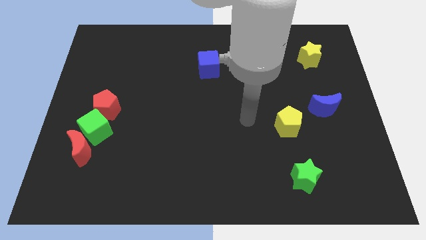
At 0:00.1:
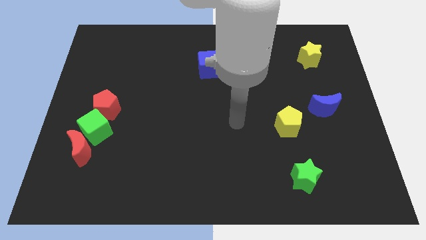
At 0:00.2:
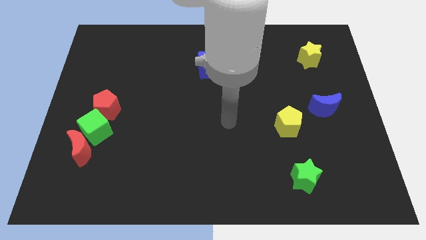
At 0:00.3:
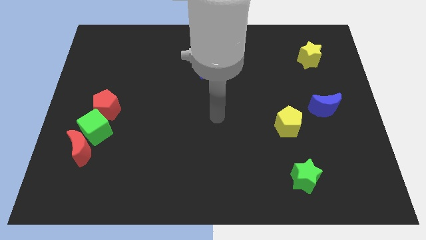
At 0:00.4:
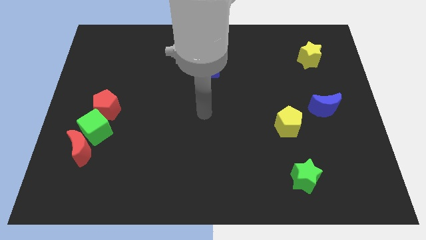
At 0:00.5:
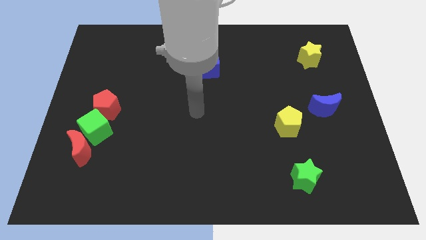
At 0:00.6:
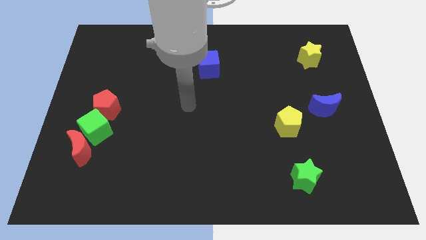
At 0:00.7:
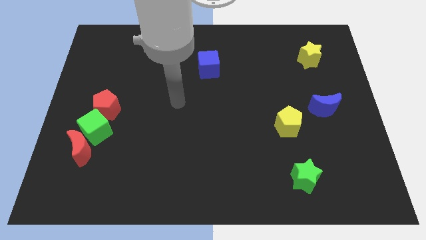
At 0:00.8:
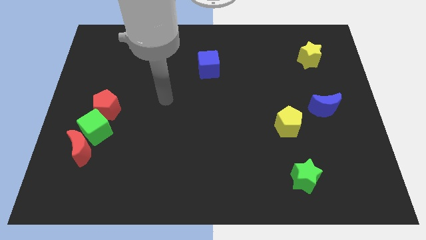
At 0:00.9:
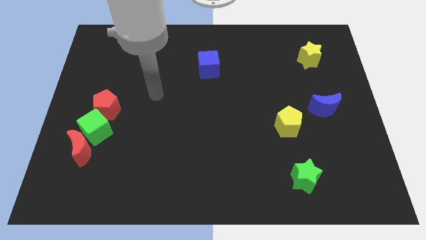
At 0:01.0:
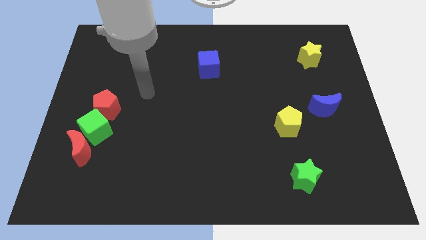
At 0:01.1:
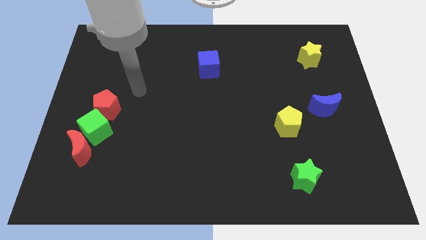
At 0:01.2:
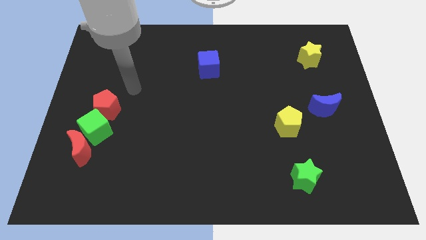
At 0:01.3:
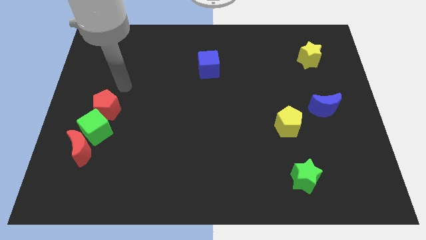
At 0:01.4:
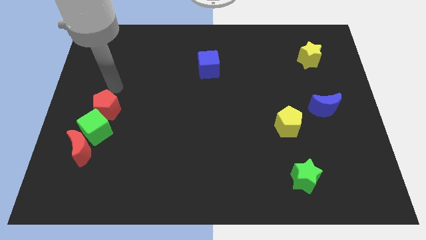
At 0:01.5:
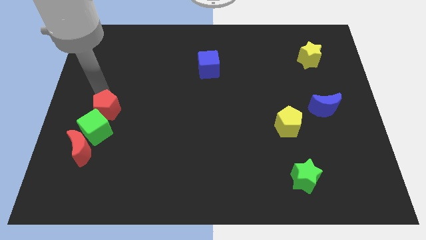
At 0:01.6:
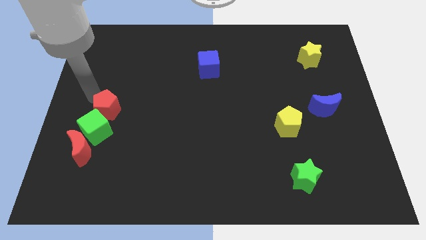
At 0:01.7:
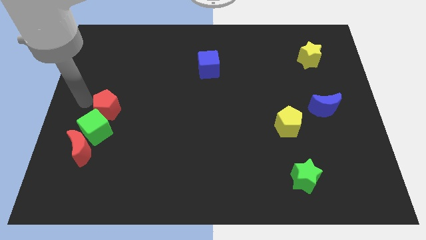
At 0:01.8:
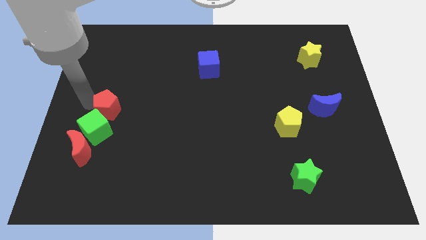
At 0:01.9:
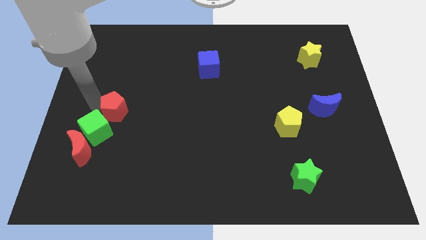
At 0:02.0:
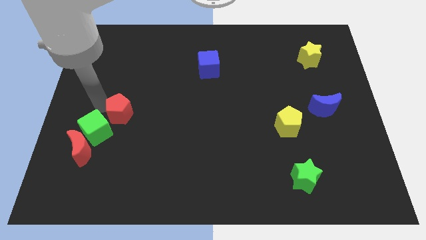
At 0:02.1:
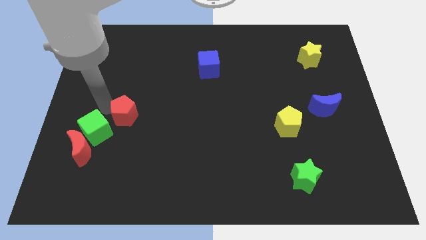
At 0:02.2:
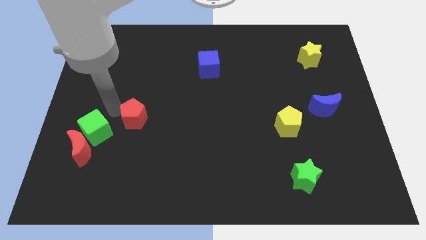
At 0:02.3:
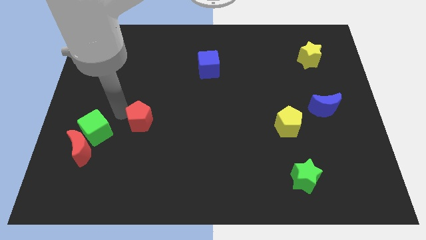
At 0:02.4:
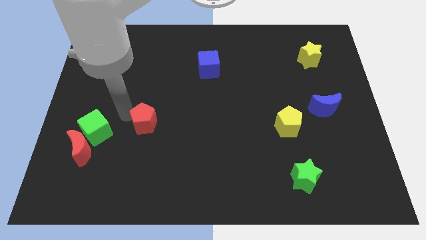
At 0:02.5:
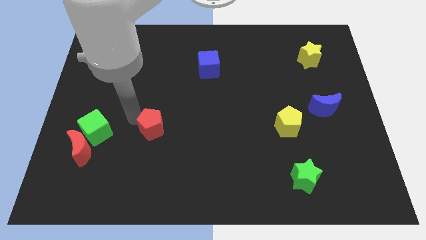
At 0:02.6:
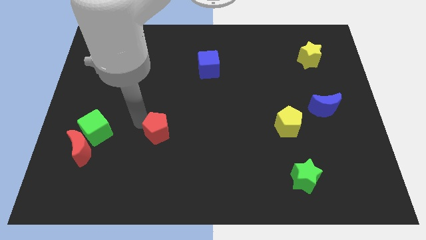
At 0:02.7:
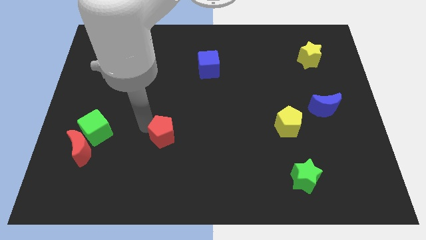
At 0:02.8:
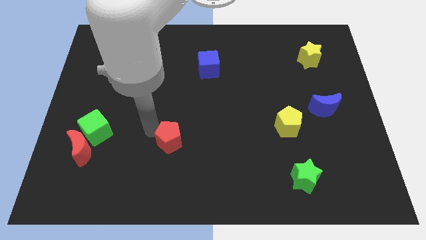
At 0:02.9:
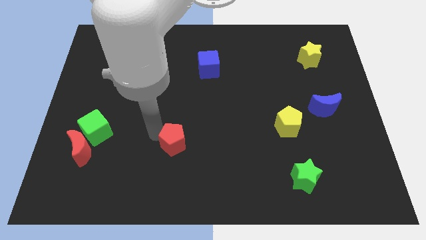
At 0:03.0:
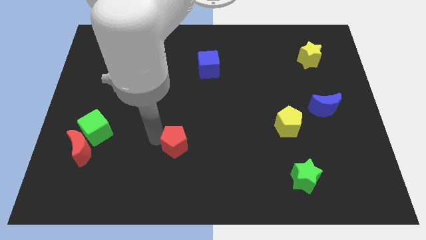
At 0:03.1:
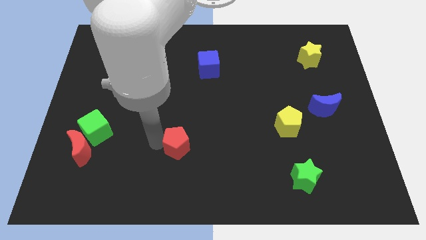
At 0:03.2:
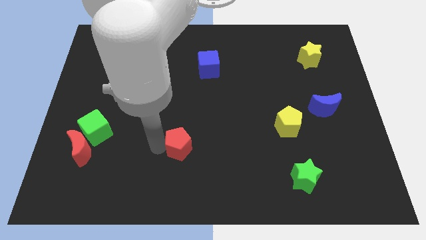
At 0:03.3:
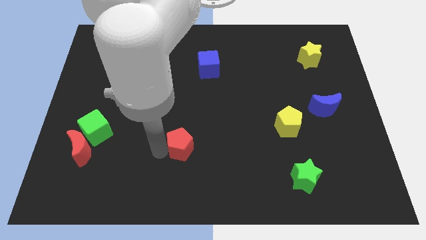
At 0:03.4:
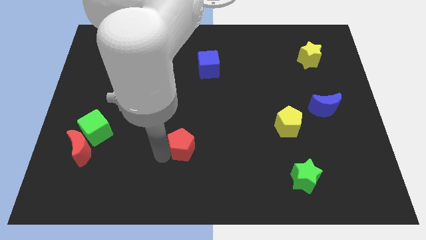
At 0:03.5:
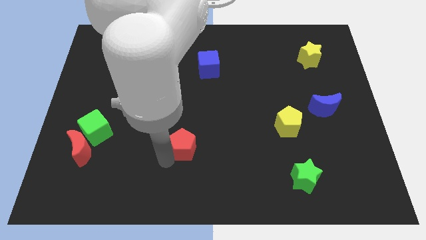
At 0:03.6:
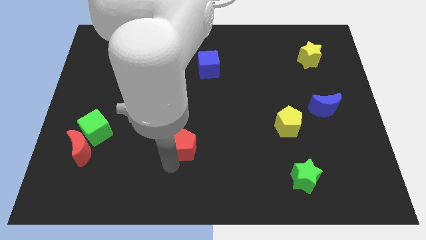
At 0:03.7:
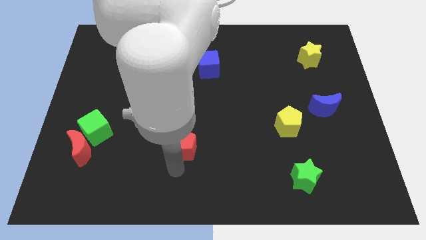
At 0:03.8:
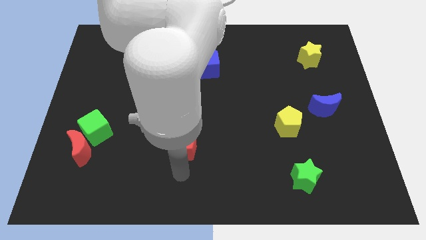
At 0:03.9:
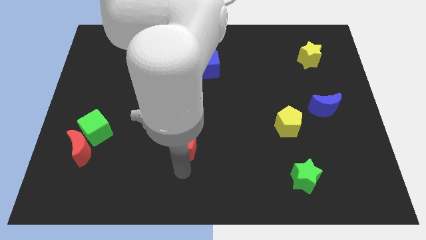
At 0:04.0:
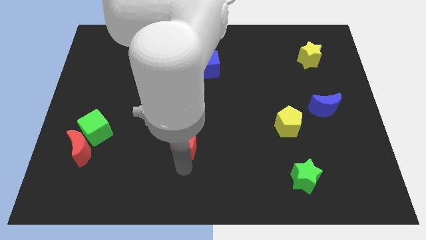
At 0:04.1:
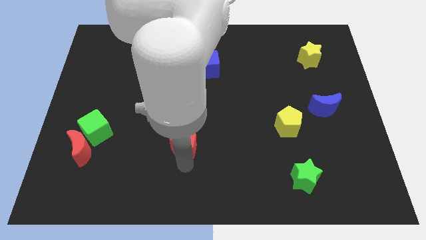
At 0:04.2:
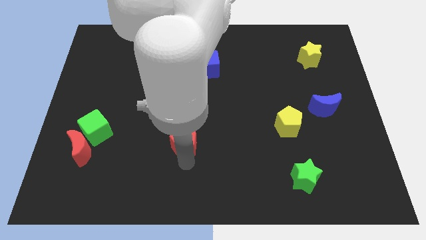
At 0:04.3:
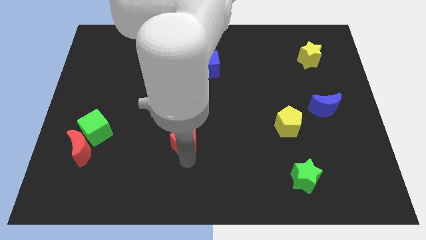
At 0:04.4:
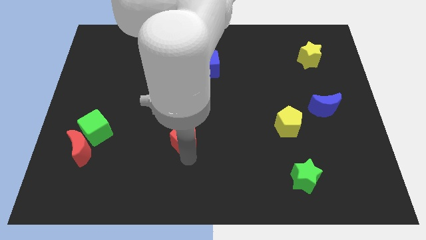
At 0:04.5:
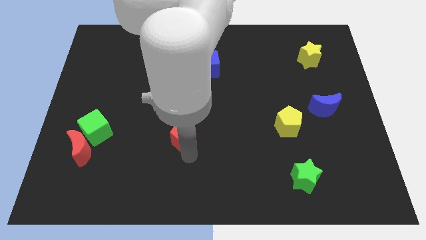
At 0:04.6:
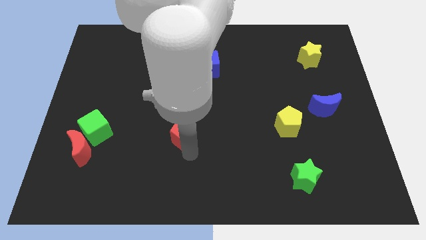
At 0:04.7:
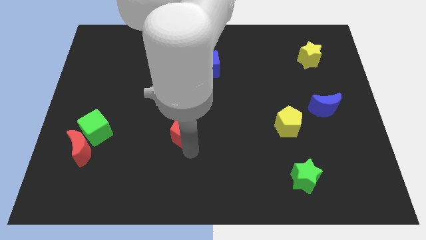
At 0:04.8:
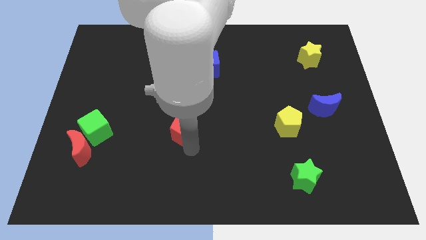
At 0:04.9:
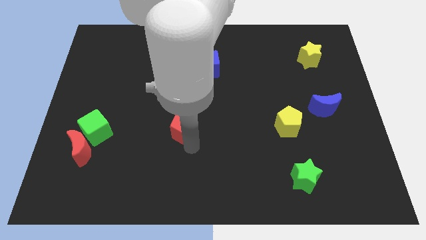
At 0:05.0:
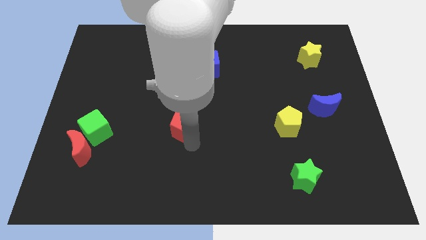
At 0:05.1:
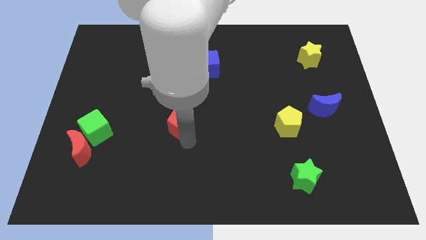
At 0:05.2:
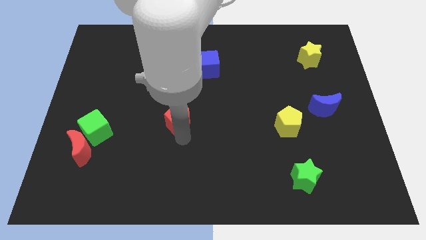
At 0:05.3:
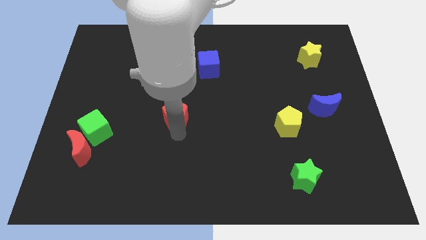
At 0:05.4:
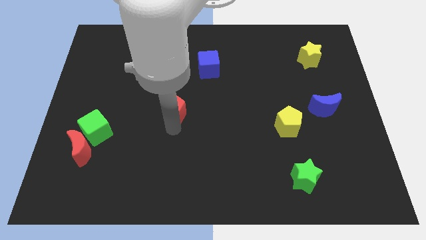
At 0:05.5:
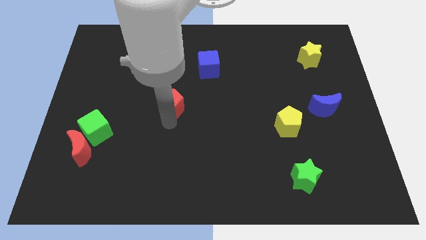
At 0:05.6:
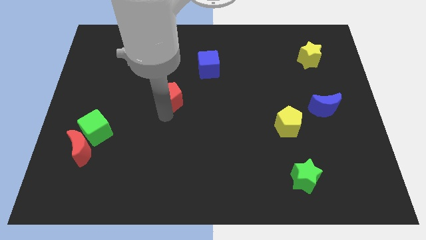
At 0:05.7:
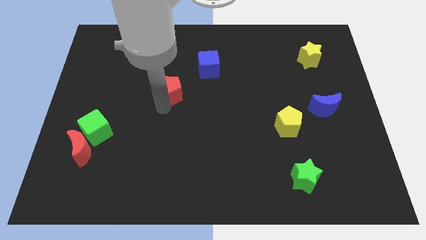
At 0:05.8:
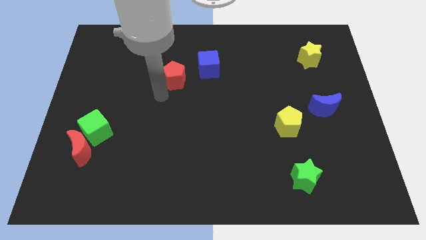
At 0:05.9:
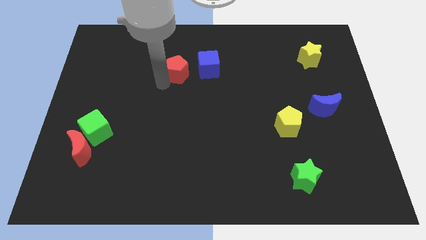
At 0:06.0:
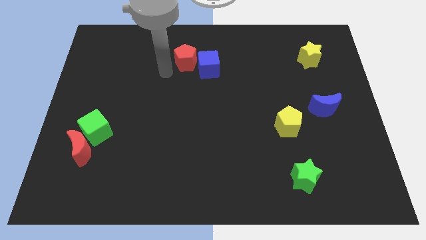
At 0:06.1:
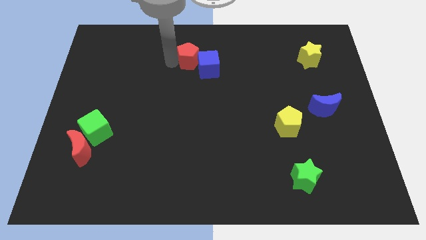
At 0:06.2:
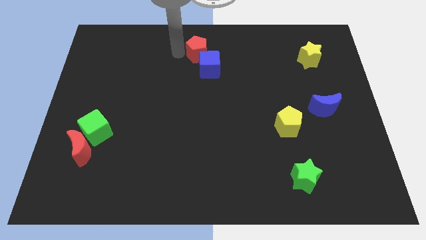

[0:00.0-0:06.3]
slide the red pentagon to the top side

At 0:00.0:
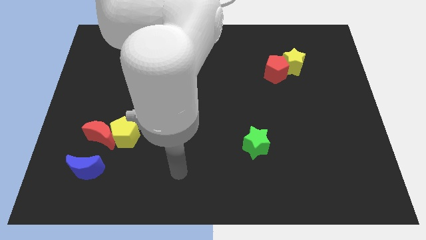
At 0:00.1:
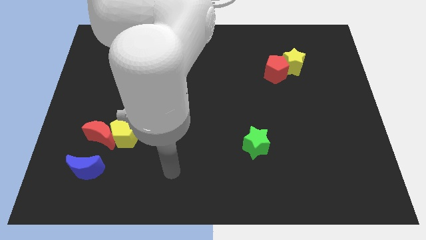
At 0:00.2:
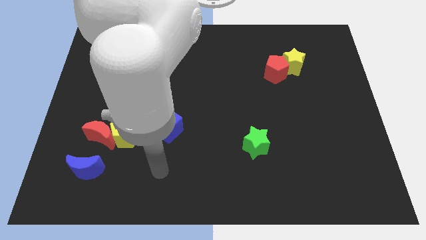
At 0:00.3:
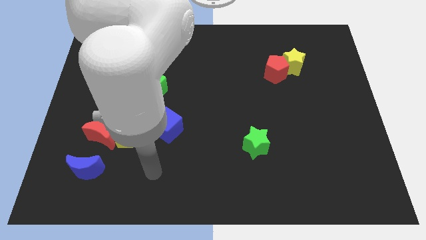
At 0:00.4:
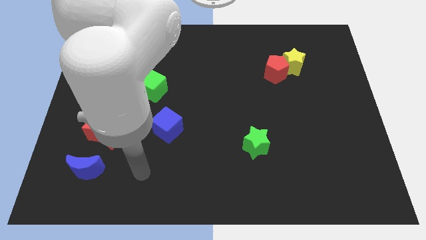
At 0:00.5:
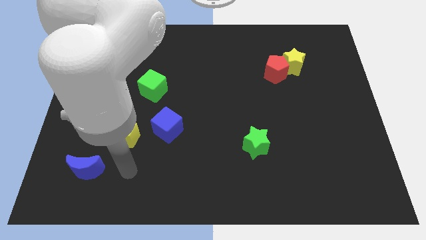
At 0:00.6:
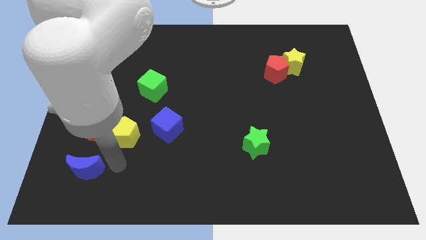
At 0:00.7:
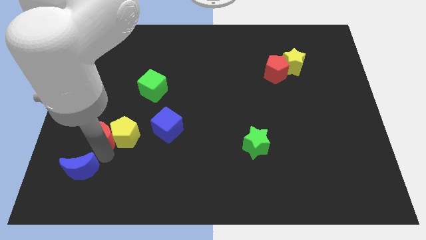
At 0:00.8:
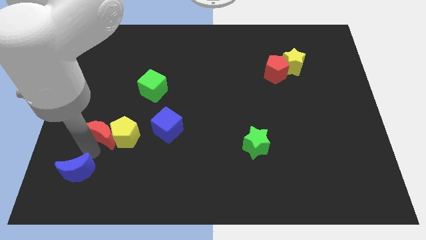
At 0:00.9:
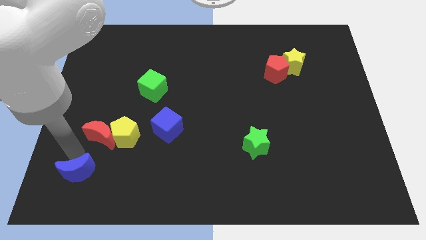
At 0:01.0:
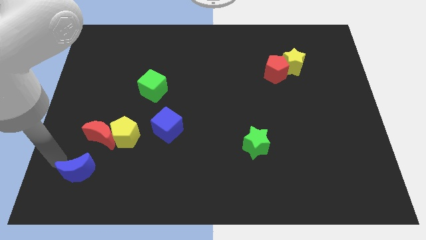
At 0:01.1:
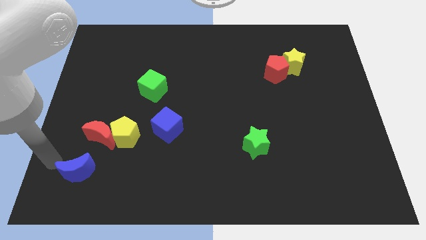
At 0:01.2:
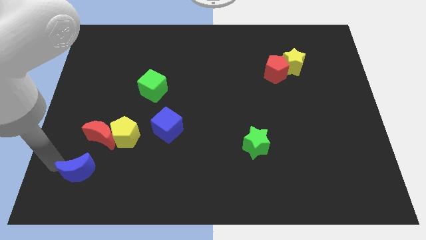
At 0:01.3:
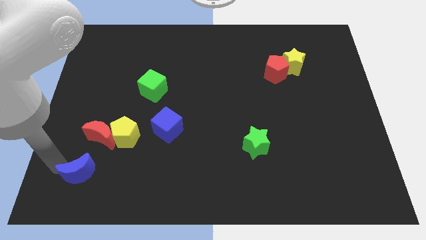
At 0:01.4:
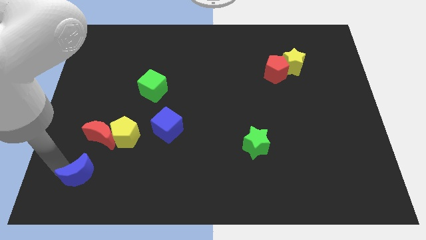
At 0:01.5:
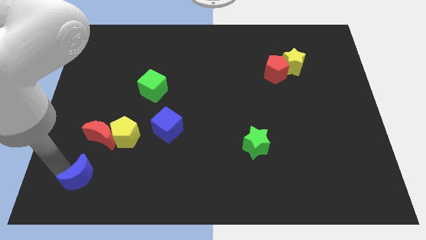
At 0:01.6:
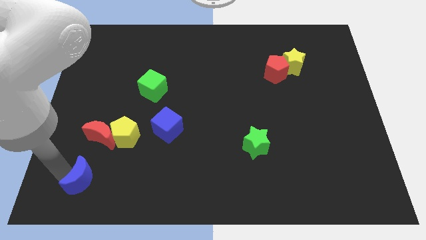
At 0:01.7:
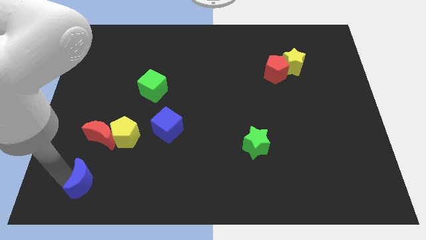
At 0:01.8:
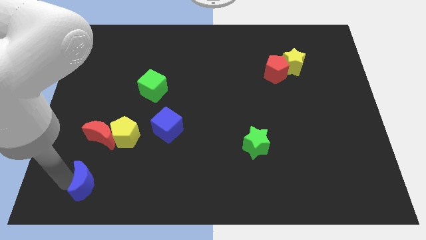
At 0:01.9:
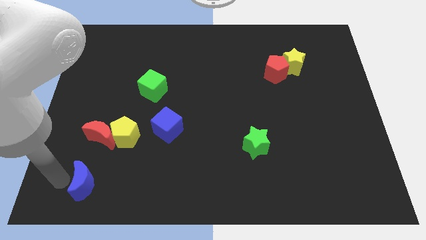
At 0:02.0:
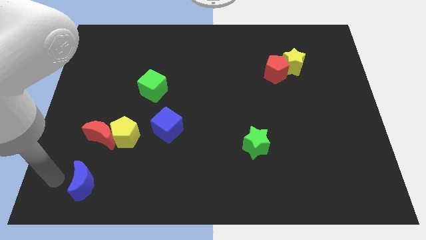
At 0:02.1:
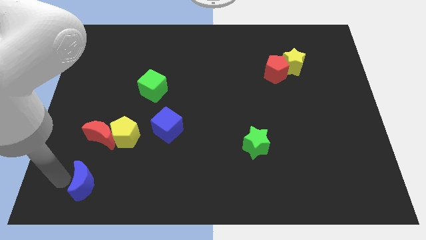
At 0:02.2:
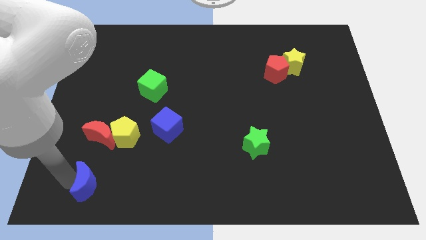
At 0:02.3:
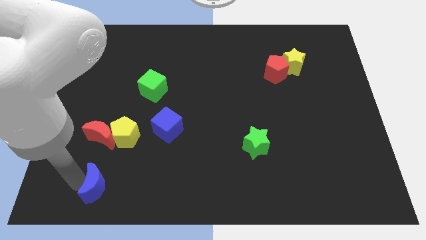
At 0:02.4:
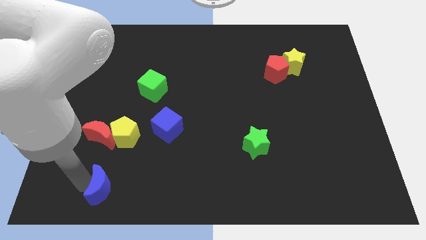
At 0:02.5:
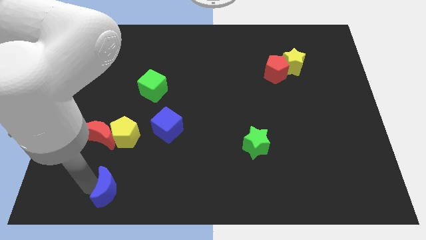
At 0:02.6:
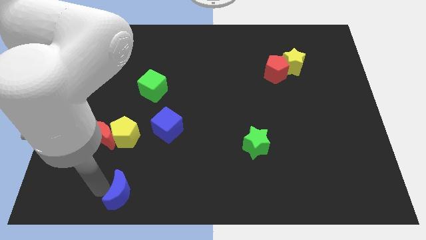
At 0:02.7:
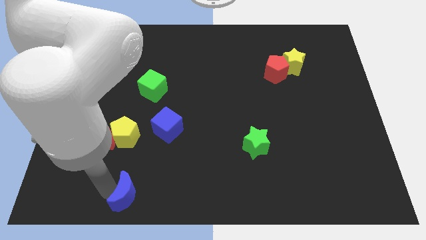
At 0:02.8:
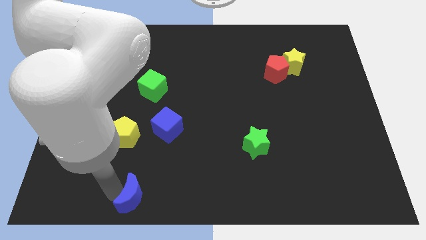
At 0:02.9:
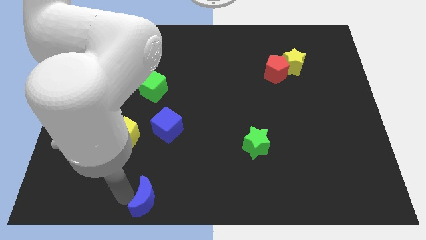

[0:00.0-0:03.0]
move the blue moon to the bottom side
